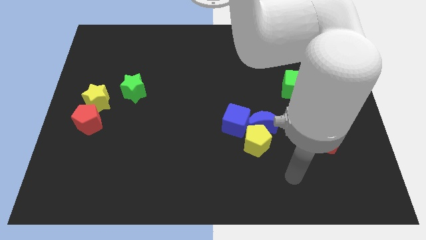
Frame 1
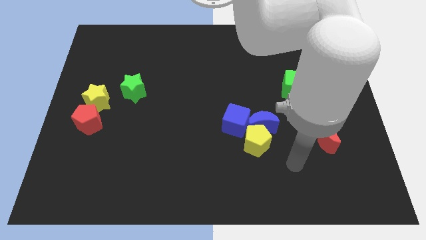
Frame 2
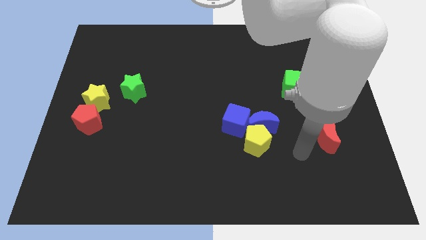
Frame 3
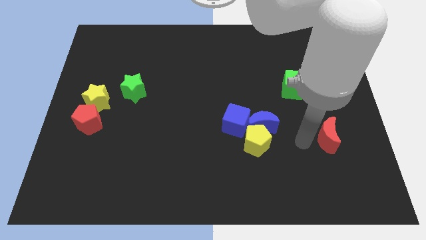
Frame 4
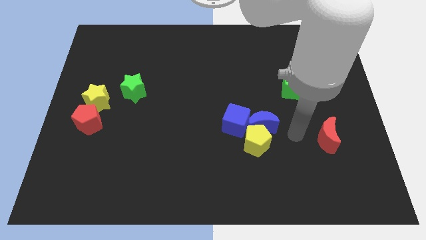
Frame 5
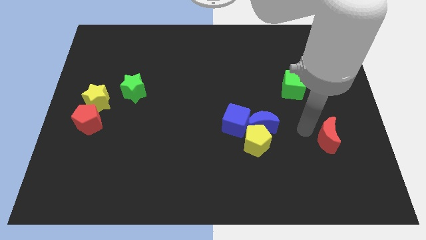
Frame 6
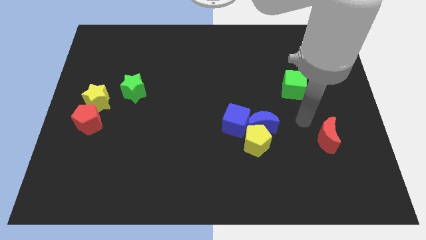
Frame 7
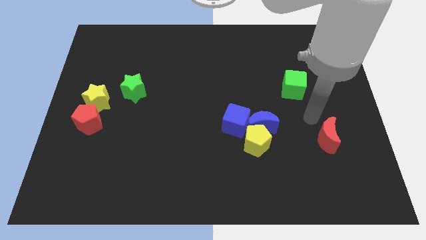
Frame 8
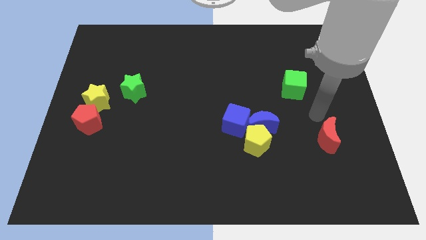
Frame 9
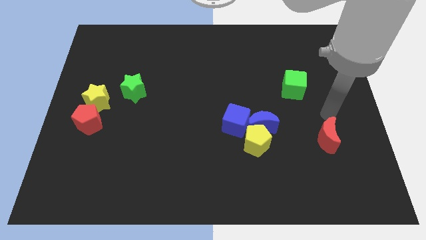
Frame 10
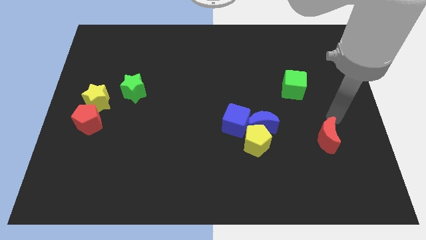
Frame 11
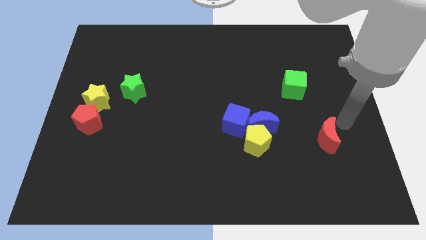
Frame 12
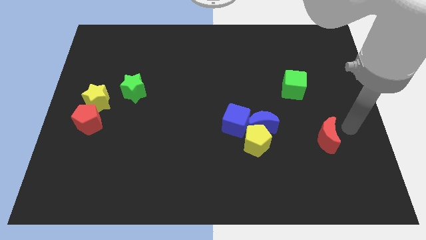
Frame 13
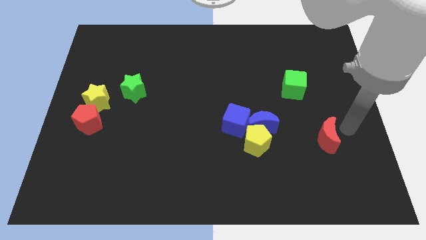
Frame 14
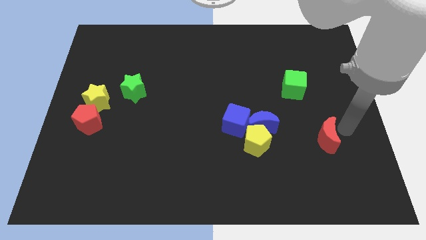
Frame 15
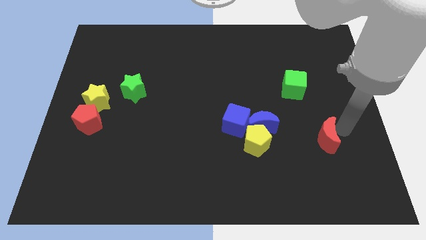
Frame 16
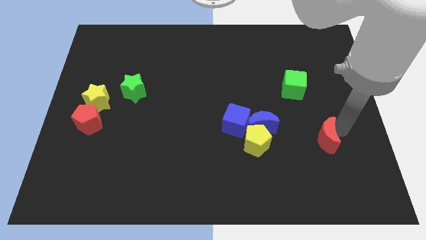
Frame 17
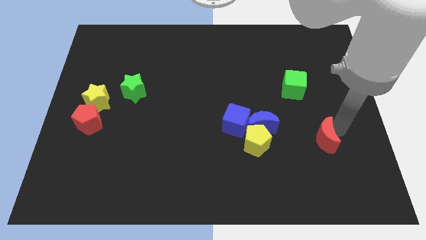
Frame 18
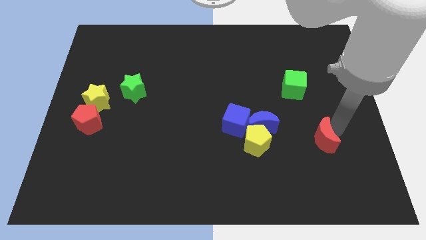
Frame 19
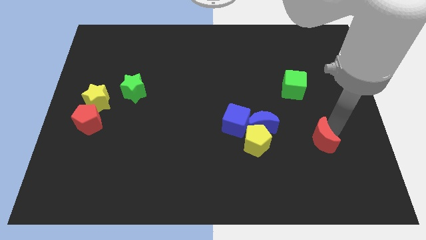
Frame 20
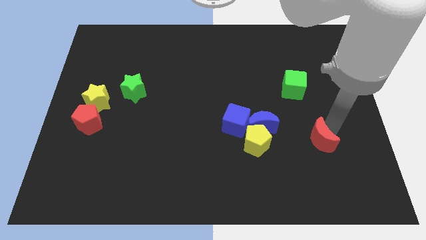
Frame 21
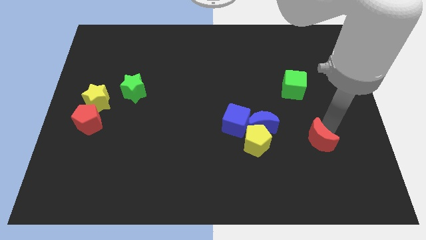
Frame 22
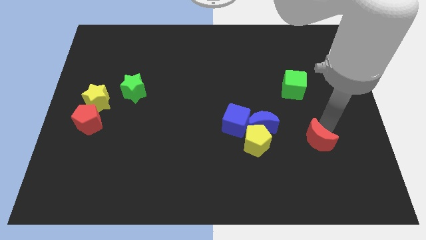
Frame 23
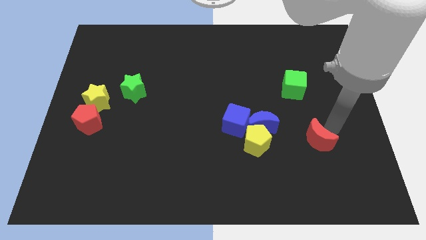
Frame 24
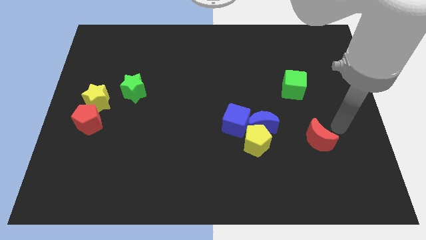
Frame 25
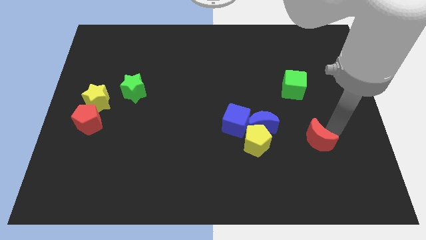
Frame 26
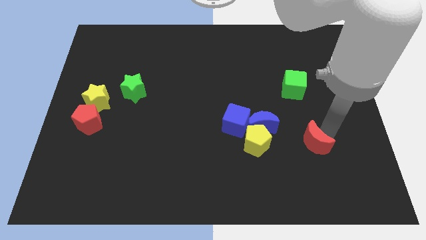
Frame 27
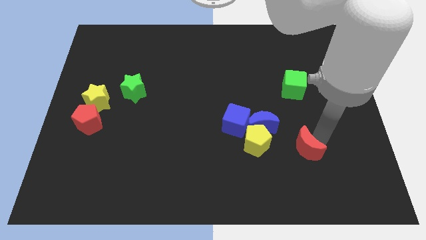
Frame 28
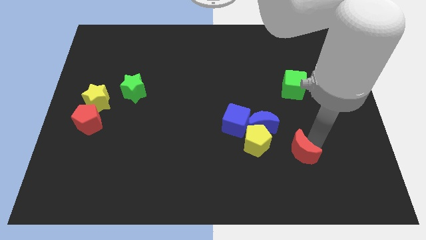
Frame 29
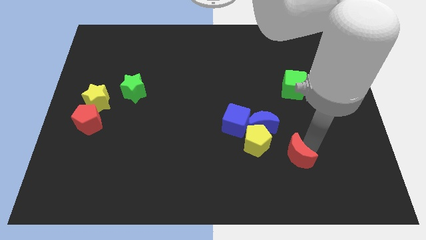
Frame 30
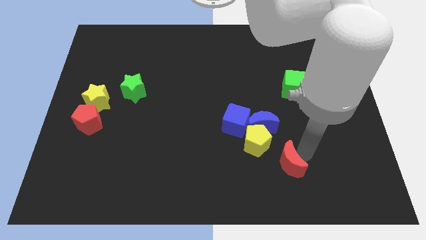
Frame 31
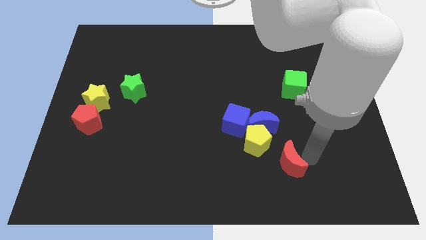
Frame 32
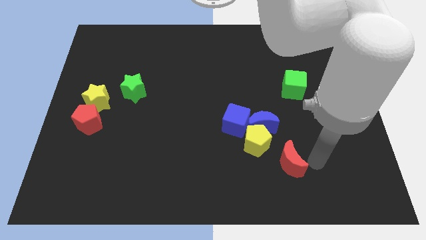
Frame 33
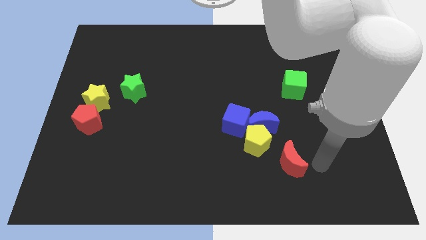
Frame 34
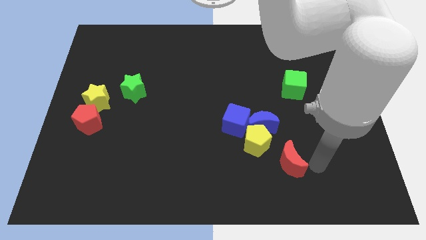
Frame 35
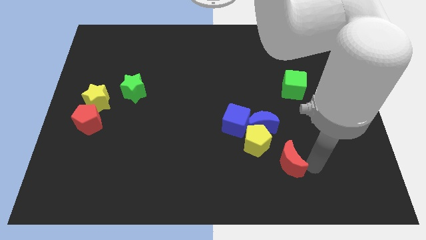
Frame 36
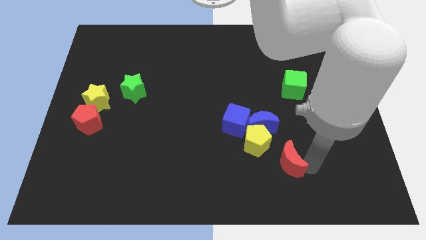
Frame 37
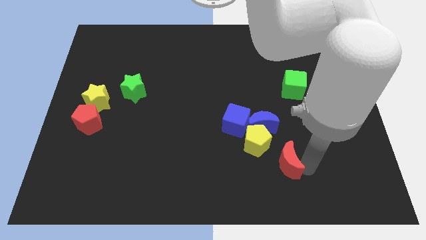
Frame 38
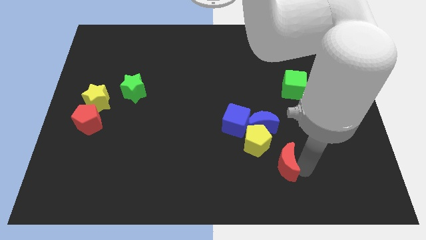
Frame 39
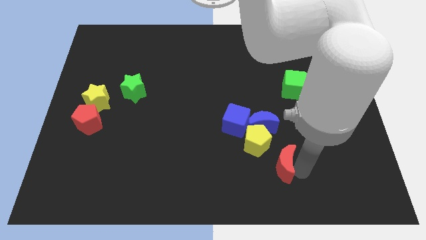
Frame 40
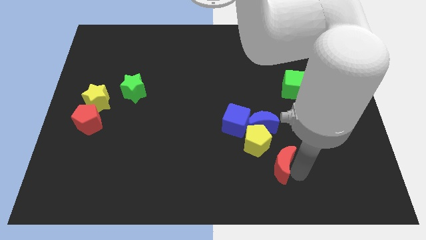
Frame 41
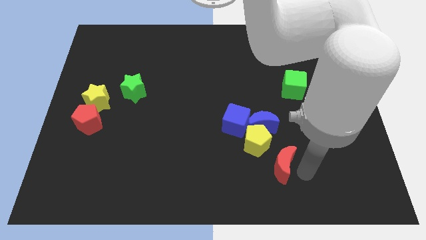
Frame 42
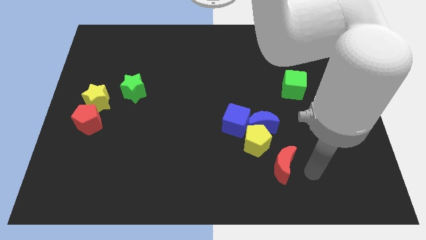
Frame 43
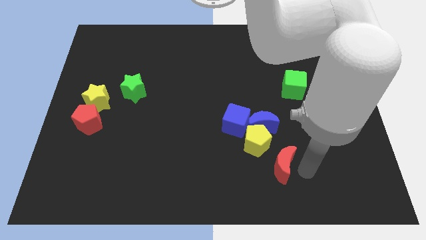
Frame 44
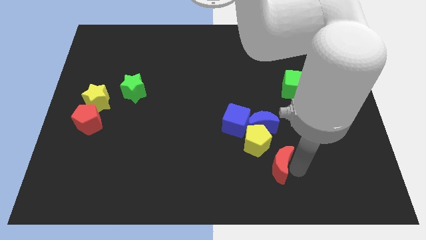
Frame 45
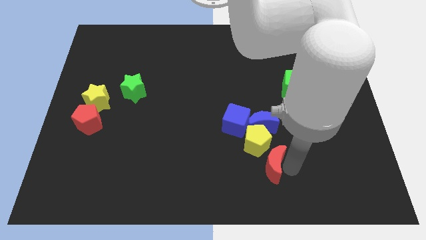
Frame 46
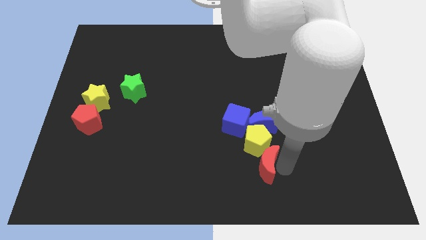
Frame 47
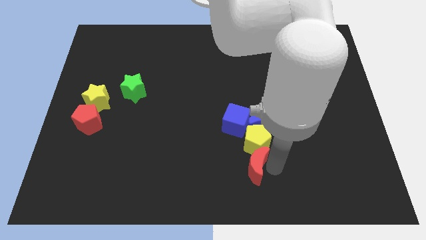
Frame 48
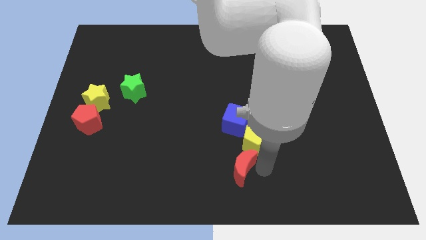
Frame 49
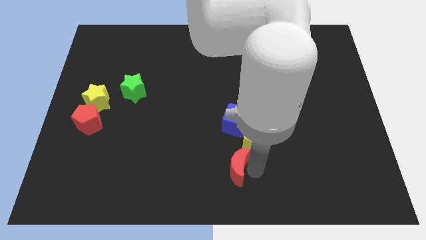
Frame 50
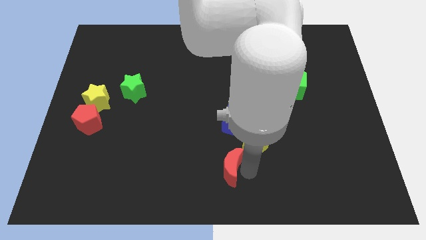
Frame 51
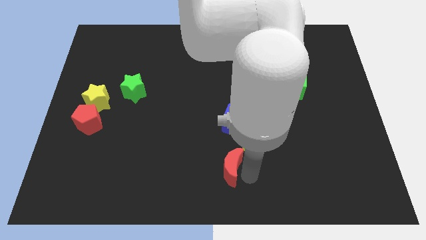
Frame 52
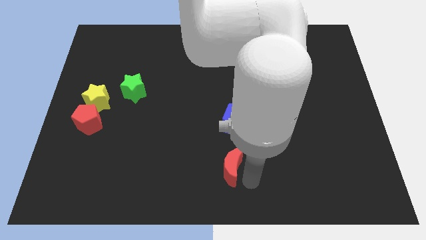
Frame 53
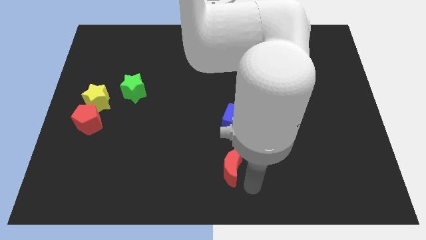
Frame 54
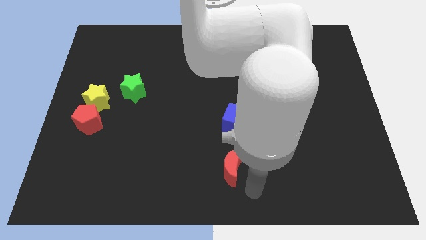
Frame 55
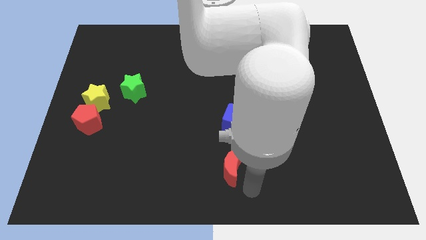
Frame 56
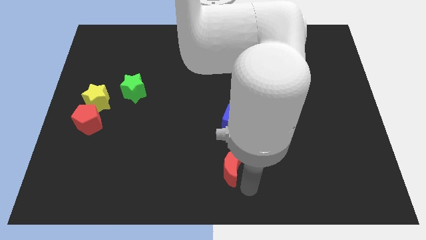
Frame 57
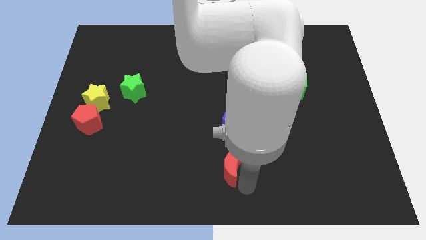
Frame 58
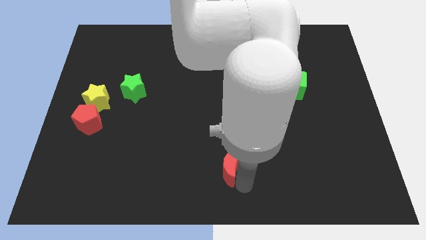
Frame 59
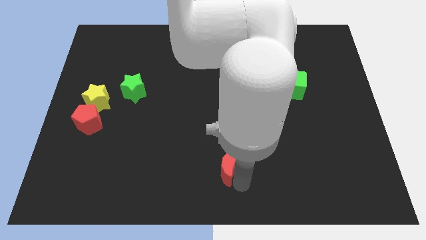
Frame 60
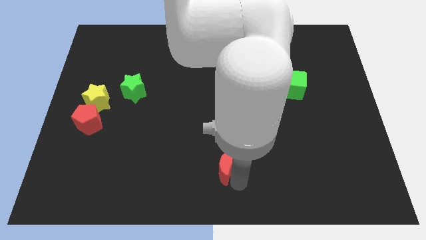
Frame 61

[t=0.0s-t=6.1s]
move the red moon left

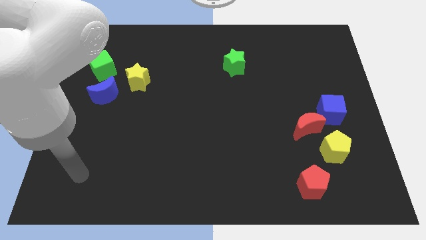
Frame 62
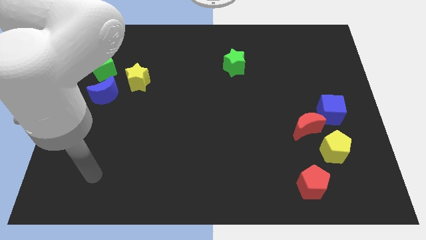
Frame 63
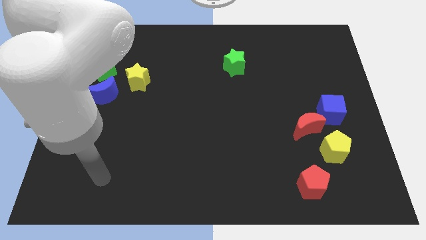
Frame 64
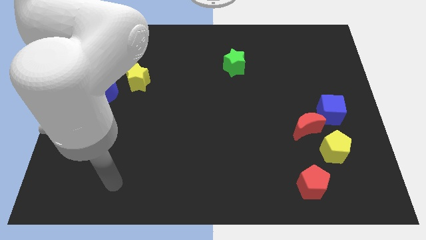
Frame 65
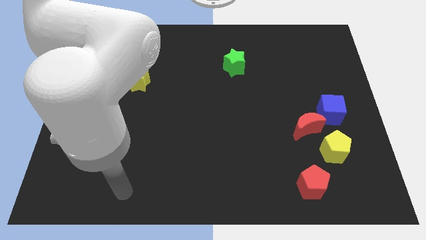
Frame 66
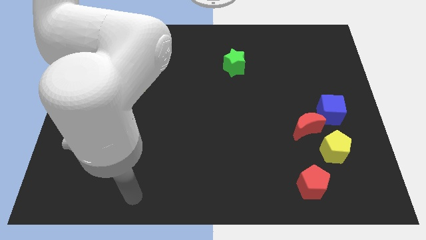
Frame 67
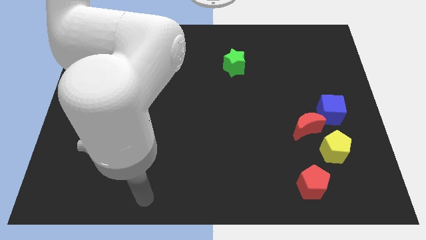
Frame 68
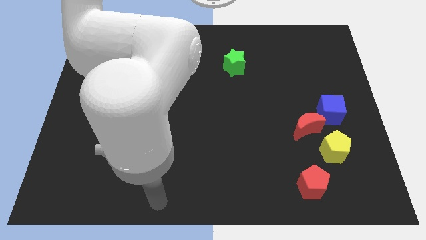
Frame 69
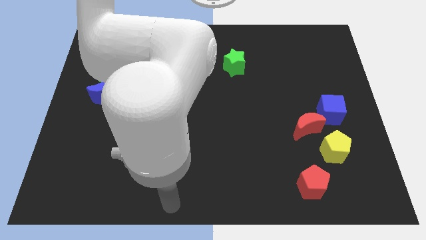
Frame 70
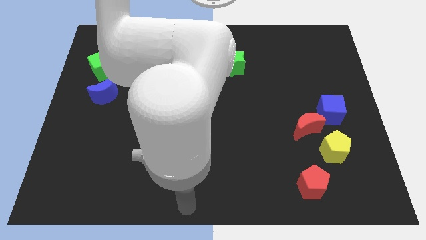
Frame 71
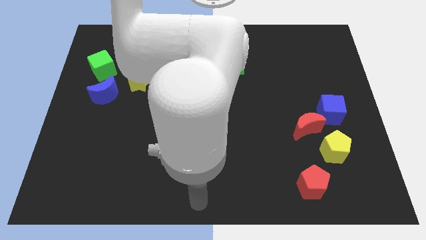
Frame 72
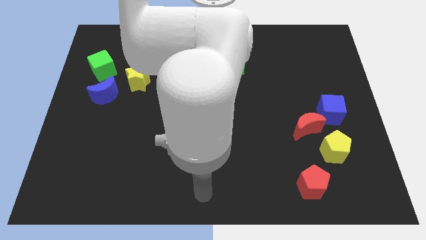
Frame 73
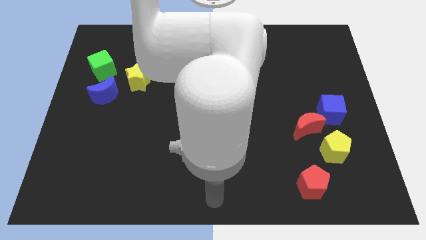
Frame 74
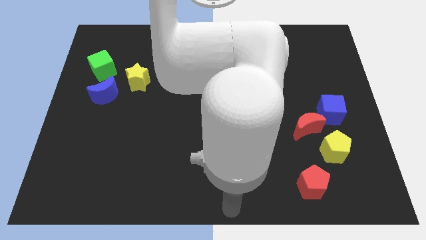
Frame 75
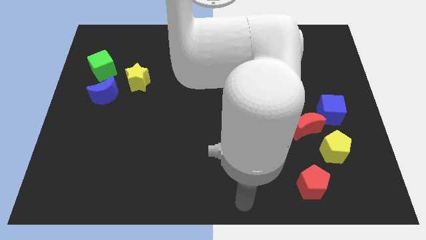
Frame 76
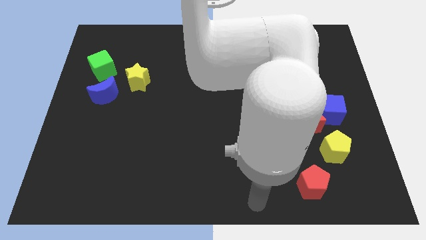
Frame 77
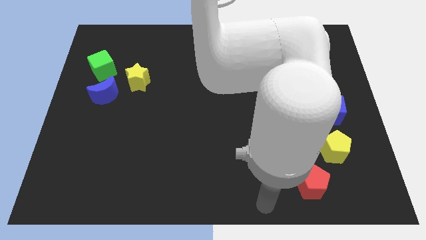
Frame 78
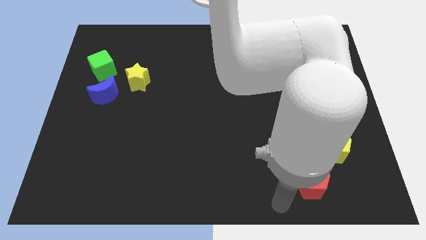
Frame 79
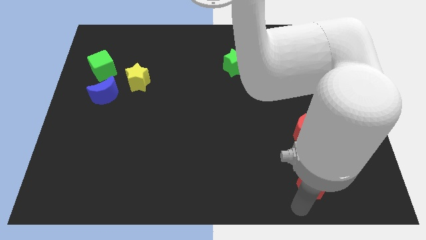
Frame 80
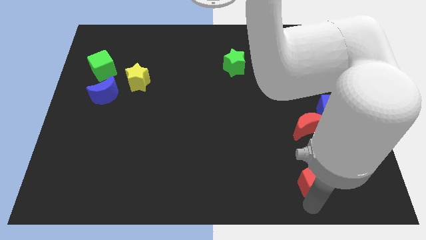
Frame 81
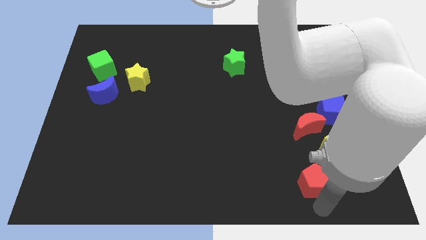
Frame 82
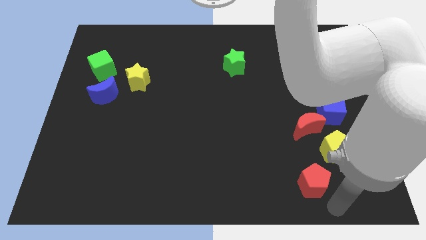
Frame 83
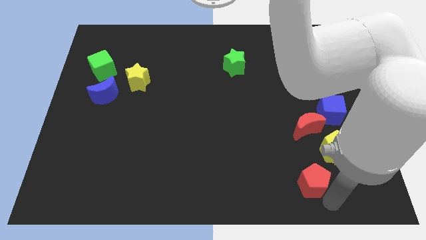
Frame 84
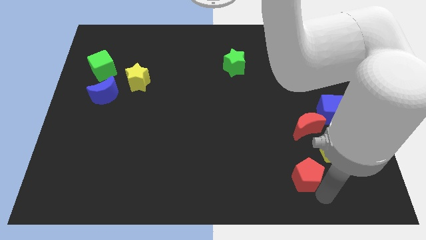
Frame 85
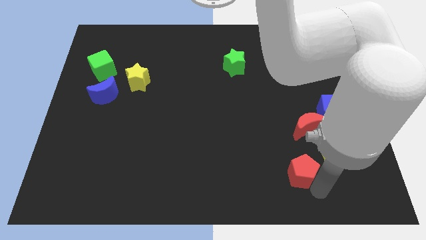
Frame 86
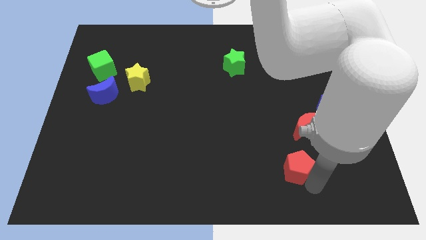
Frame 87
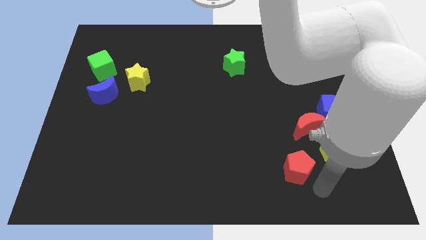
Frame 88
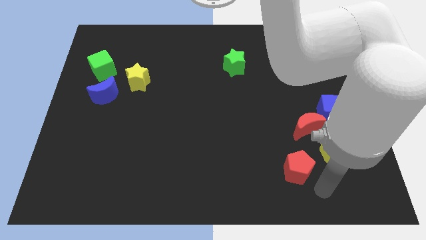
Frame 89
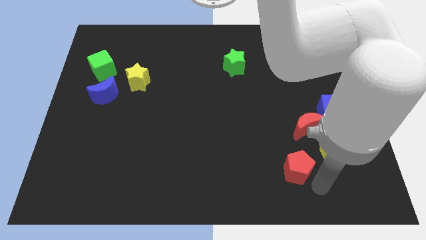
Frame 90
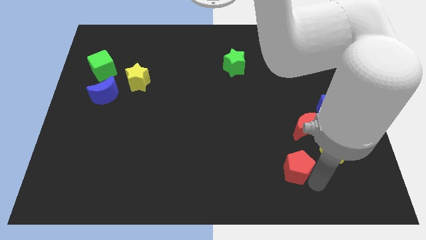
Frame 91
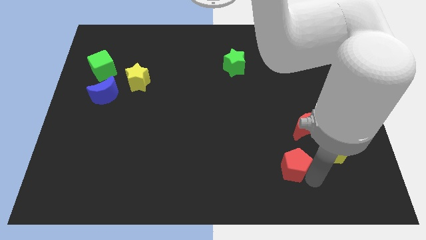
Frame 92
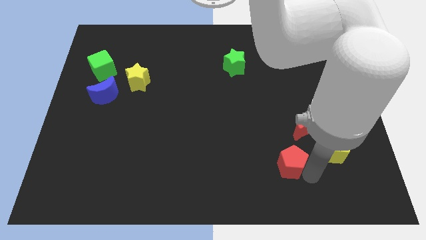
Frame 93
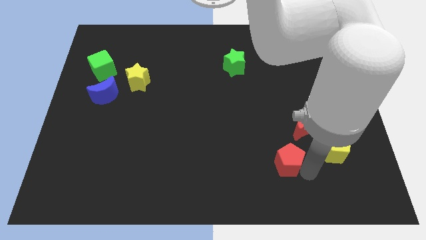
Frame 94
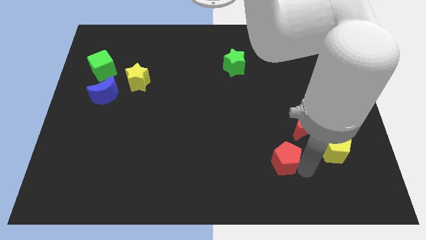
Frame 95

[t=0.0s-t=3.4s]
slightly push the red pentagon up and to the left
